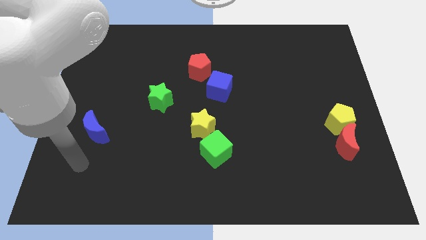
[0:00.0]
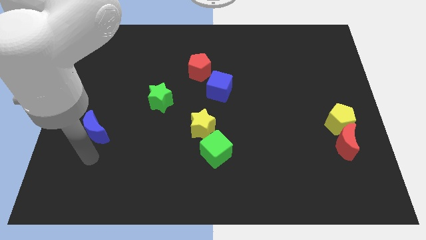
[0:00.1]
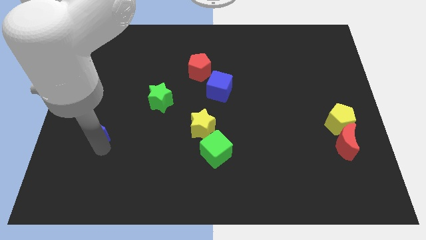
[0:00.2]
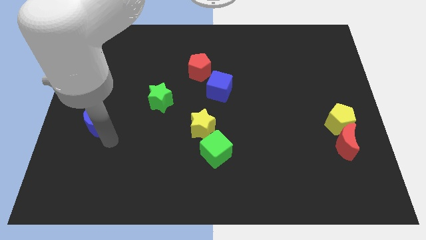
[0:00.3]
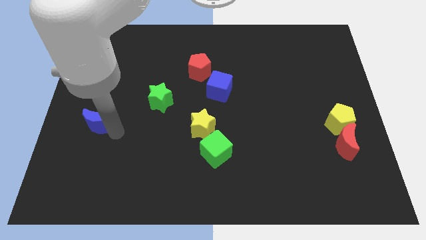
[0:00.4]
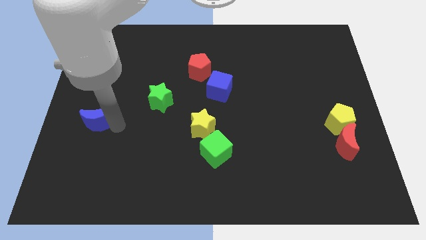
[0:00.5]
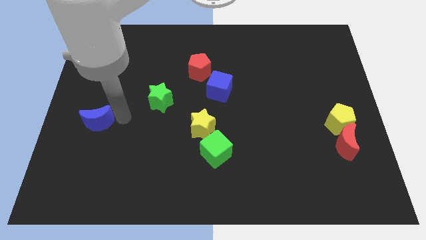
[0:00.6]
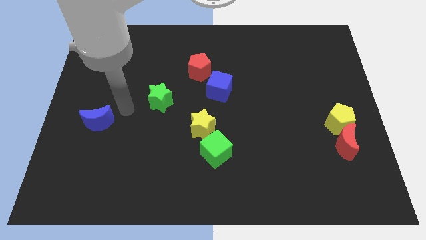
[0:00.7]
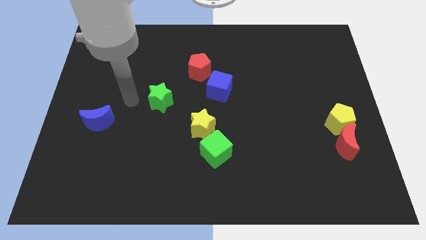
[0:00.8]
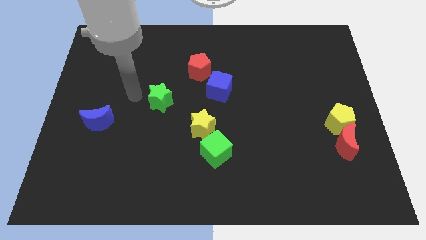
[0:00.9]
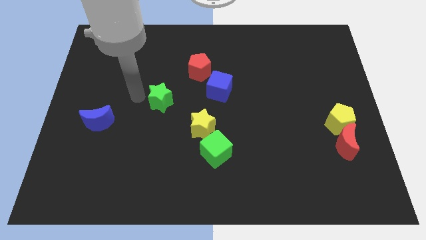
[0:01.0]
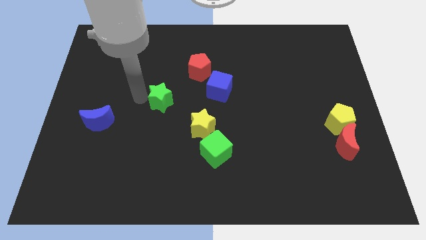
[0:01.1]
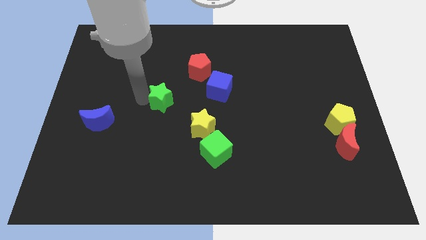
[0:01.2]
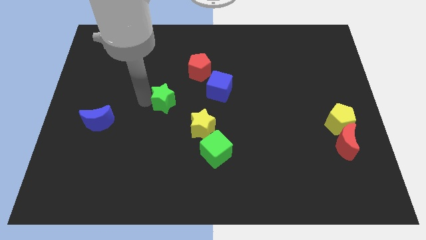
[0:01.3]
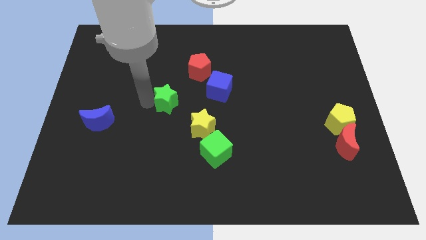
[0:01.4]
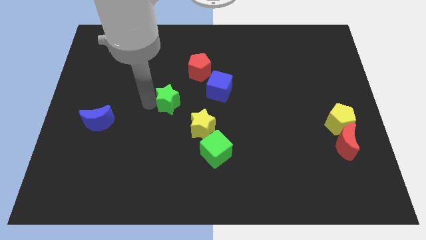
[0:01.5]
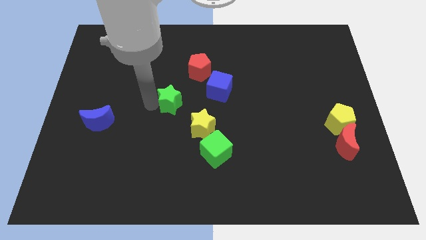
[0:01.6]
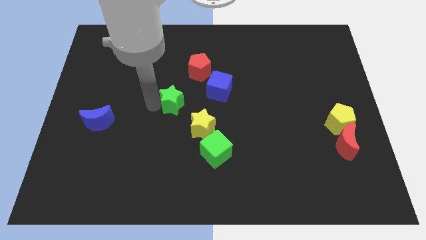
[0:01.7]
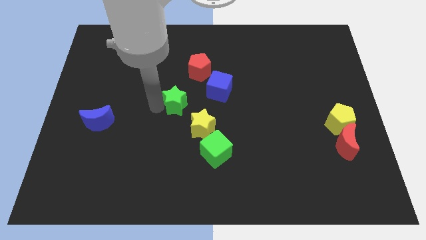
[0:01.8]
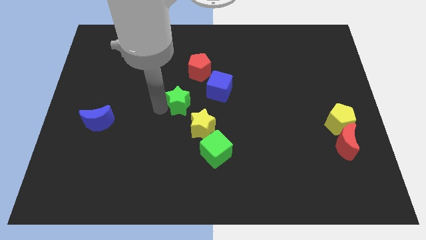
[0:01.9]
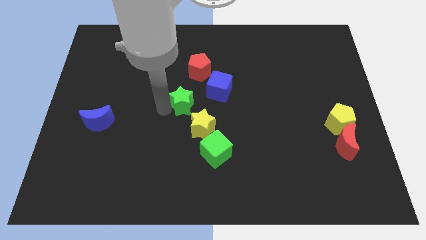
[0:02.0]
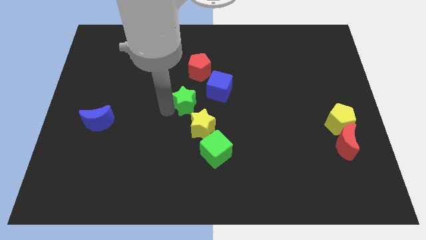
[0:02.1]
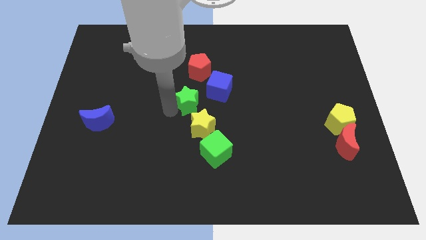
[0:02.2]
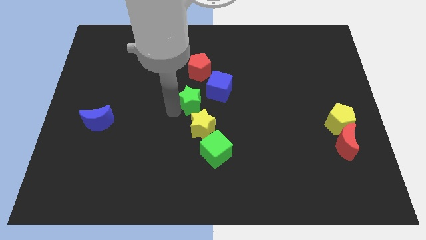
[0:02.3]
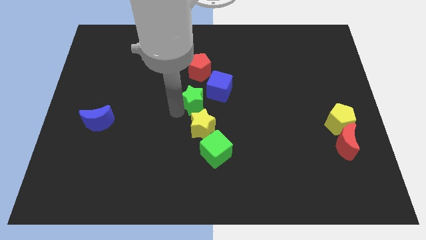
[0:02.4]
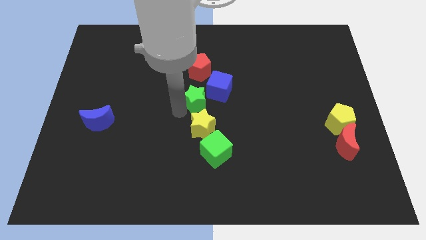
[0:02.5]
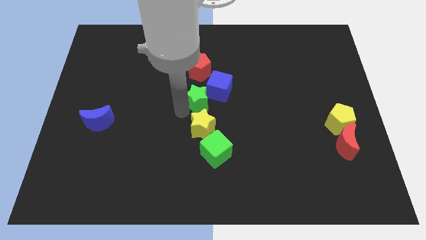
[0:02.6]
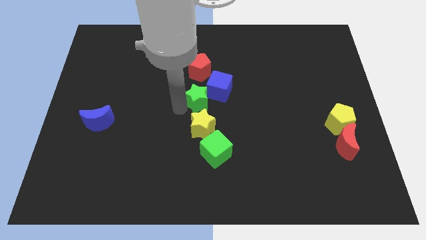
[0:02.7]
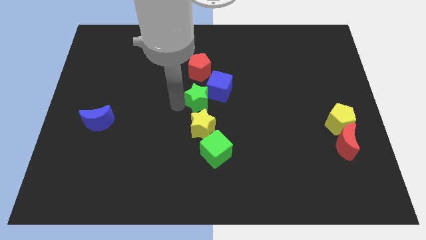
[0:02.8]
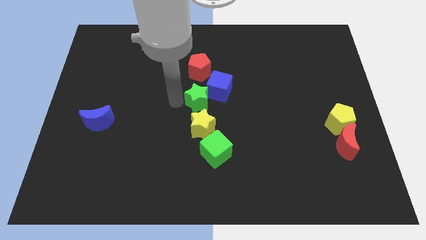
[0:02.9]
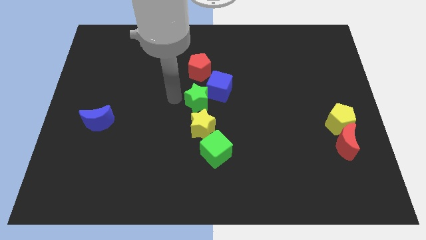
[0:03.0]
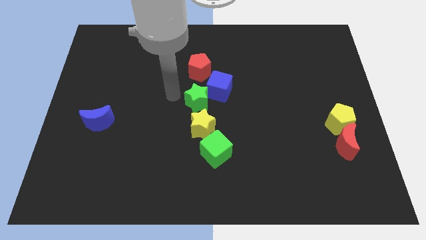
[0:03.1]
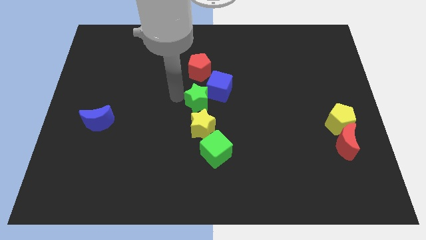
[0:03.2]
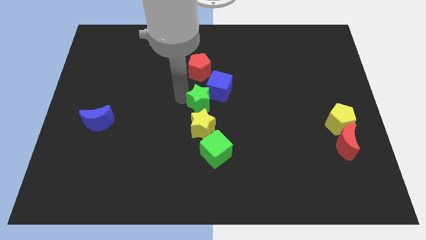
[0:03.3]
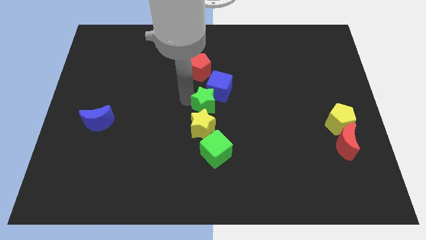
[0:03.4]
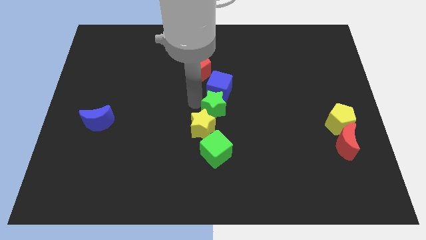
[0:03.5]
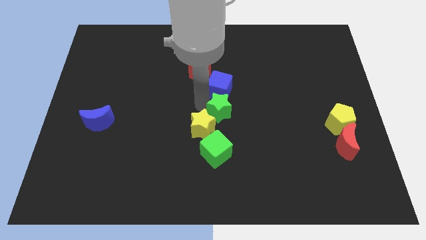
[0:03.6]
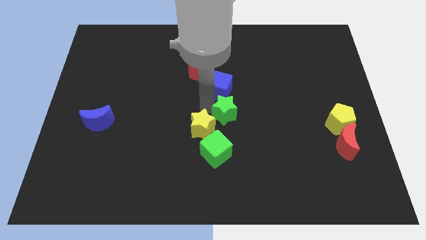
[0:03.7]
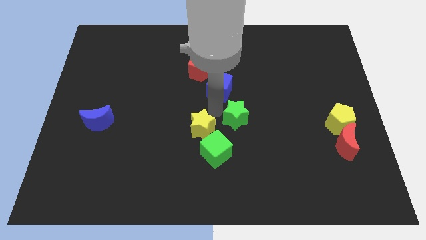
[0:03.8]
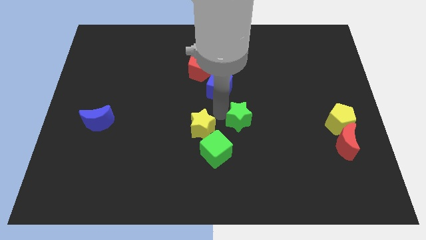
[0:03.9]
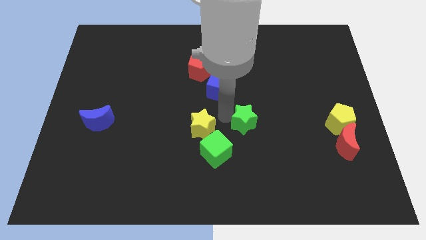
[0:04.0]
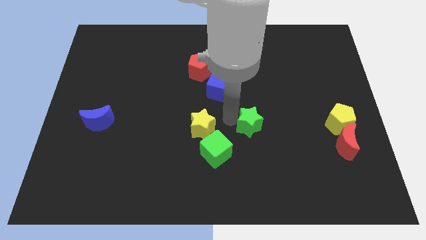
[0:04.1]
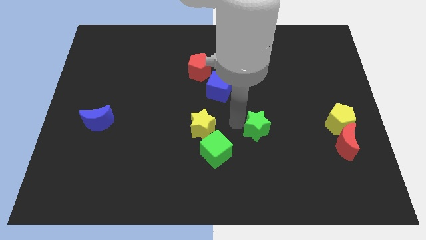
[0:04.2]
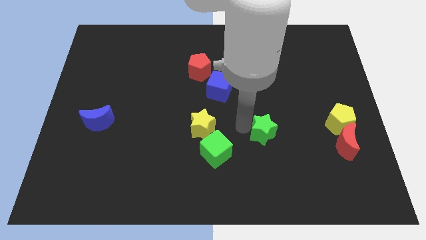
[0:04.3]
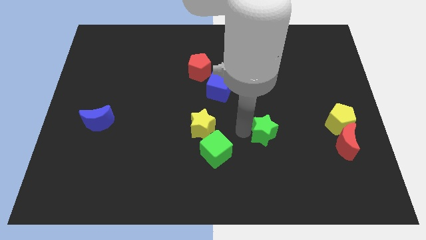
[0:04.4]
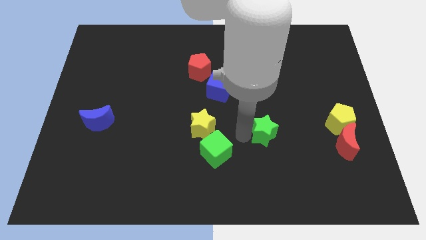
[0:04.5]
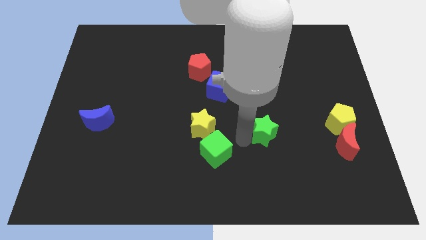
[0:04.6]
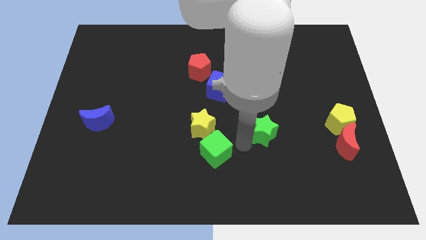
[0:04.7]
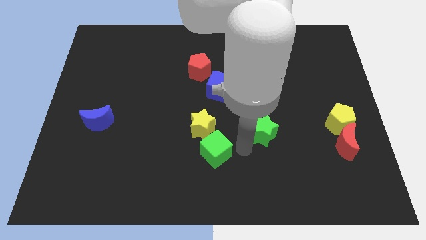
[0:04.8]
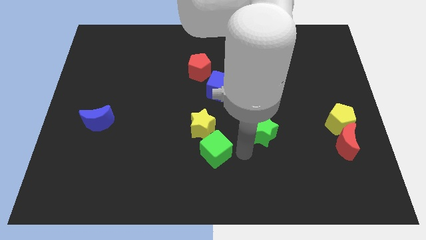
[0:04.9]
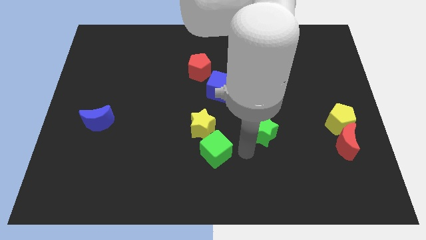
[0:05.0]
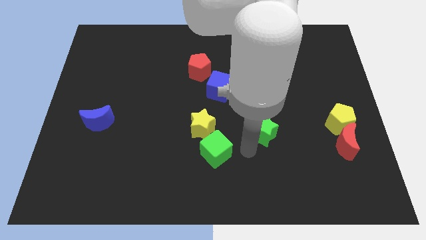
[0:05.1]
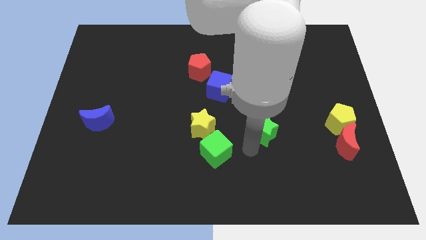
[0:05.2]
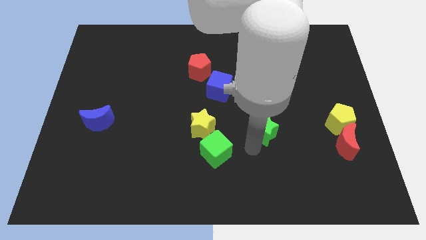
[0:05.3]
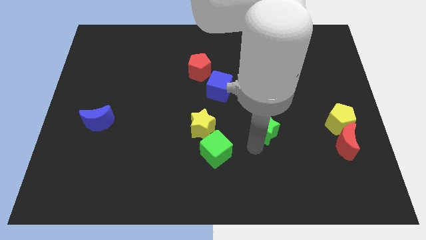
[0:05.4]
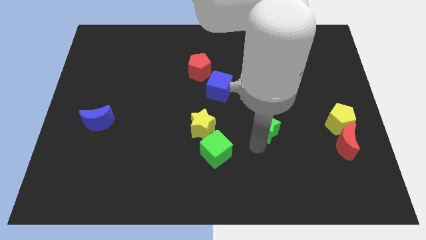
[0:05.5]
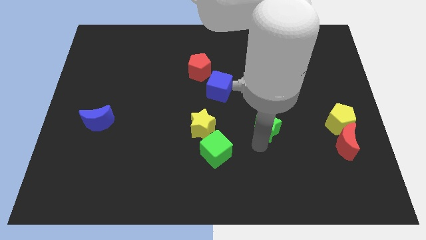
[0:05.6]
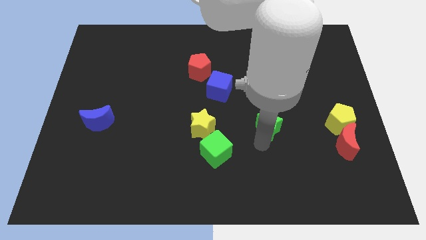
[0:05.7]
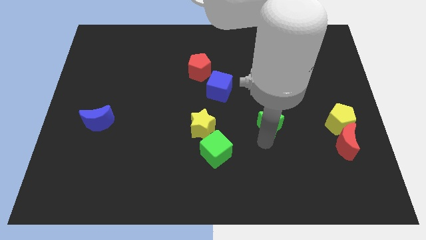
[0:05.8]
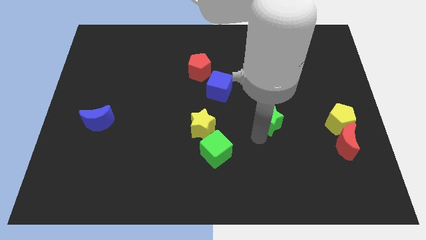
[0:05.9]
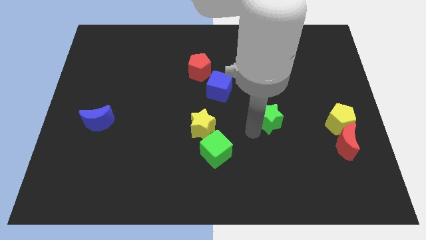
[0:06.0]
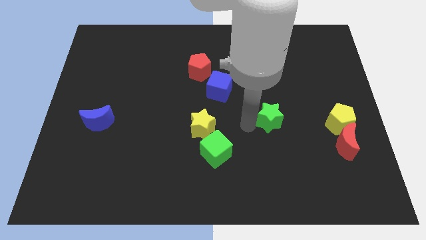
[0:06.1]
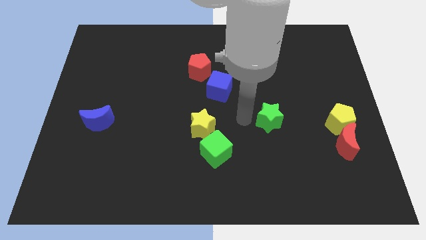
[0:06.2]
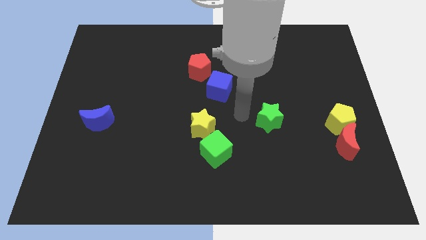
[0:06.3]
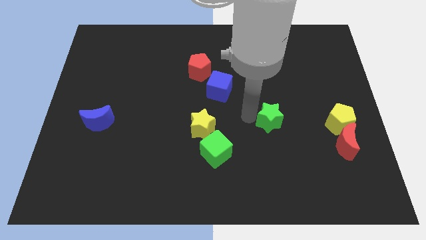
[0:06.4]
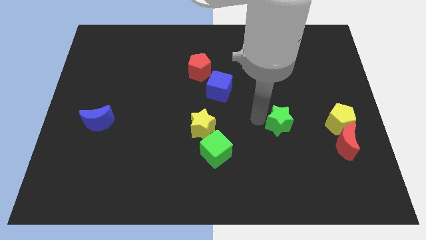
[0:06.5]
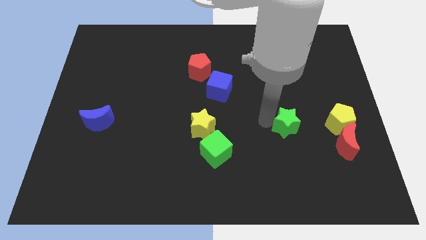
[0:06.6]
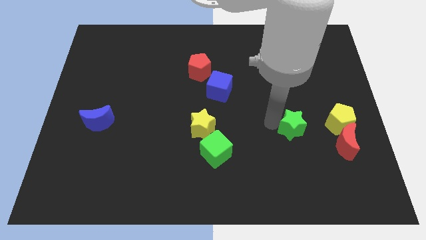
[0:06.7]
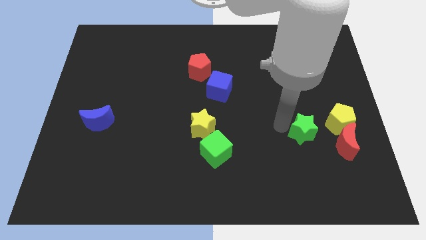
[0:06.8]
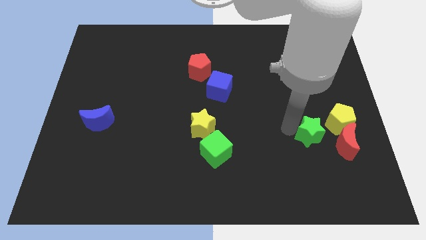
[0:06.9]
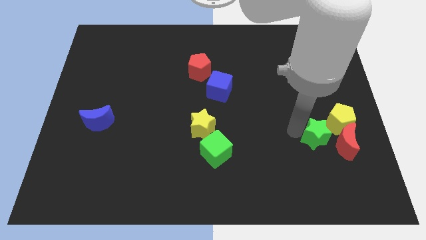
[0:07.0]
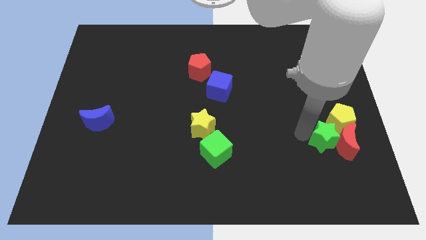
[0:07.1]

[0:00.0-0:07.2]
slide the green star to the red moon
